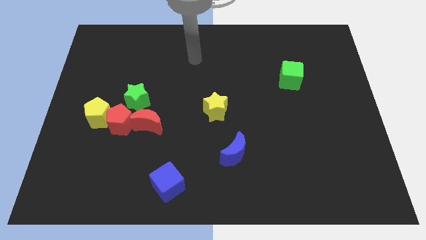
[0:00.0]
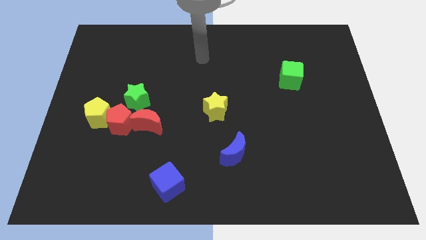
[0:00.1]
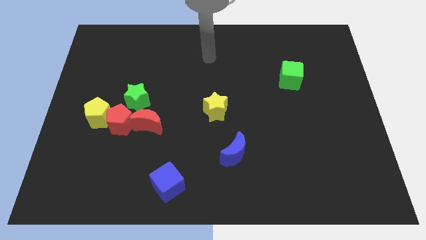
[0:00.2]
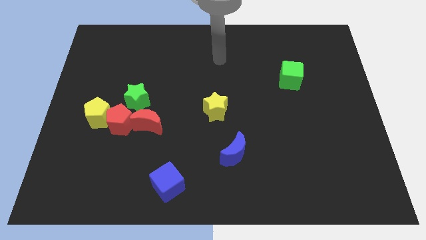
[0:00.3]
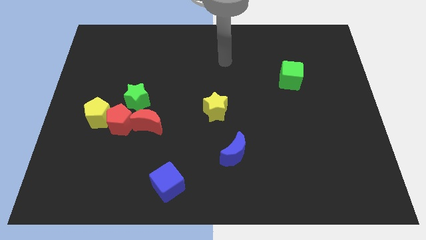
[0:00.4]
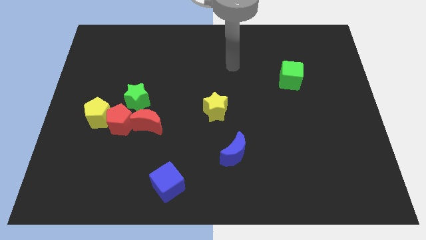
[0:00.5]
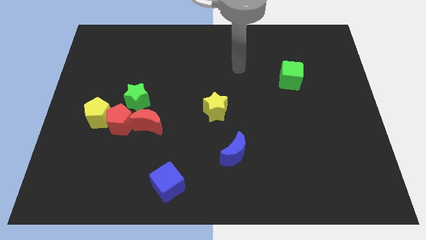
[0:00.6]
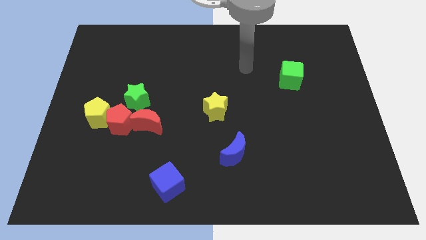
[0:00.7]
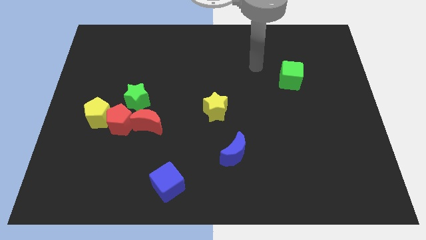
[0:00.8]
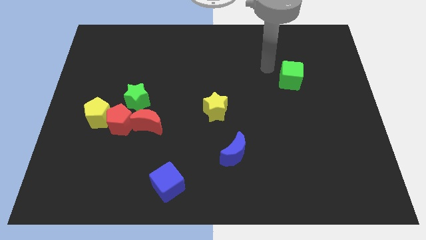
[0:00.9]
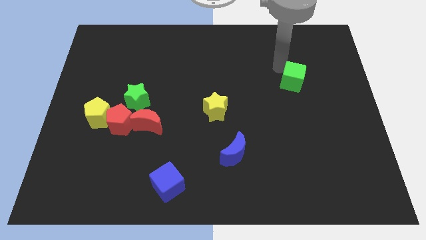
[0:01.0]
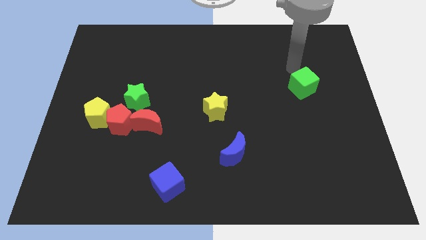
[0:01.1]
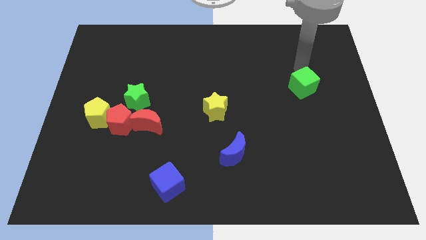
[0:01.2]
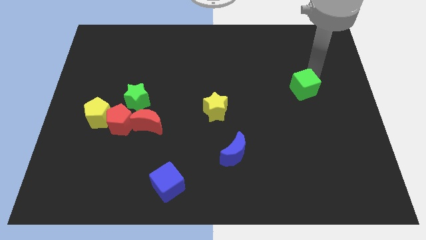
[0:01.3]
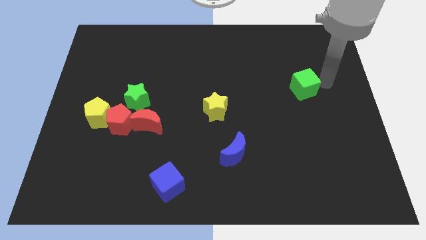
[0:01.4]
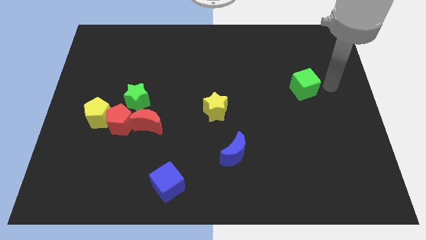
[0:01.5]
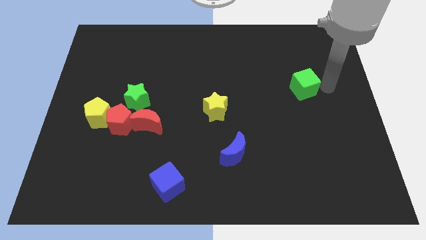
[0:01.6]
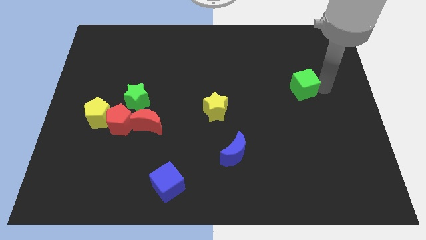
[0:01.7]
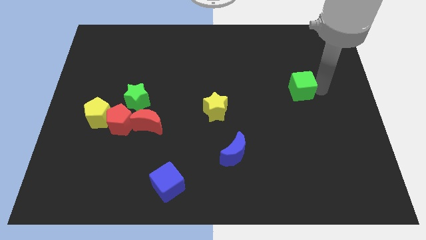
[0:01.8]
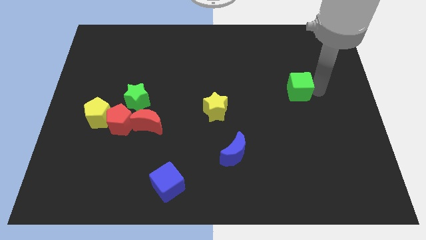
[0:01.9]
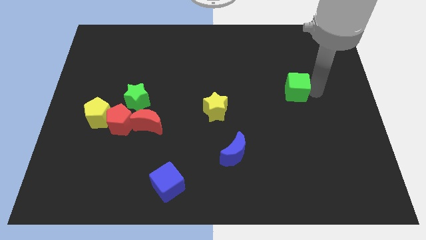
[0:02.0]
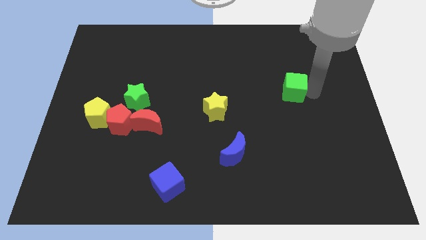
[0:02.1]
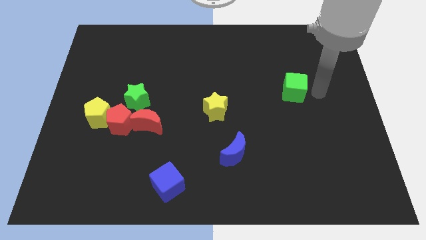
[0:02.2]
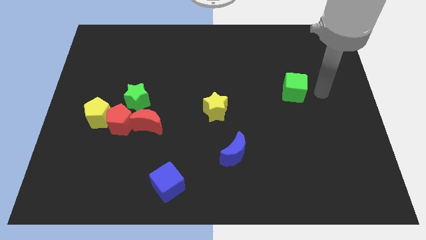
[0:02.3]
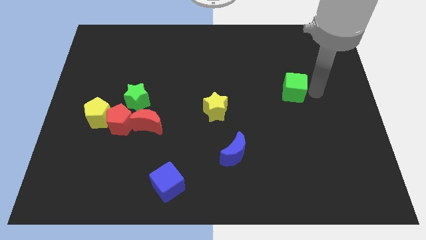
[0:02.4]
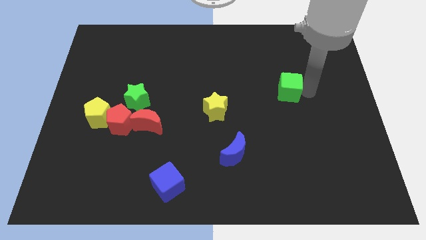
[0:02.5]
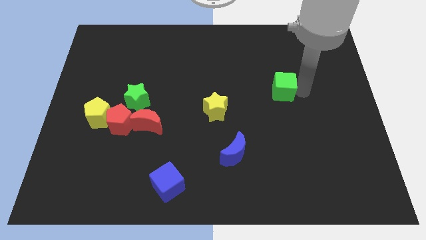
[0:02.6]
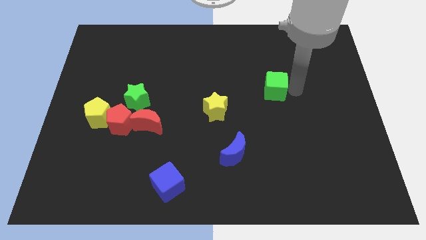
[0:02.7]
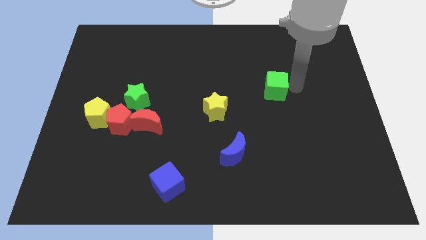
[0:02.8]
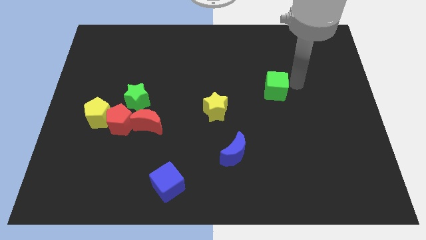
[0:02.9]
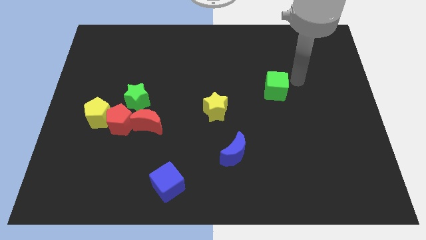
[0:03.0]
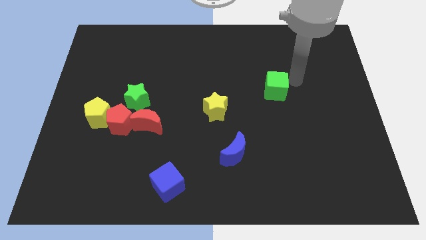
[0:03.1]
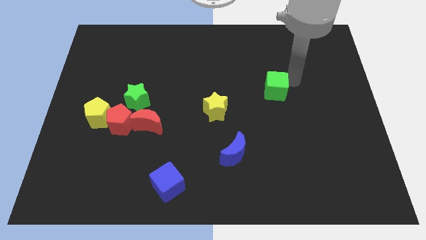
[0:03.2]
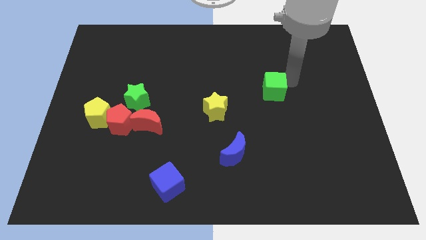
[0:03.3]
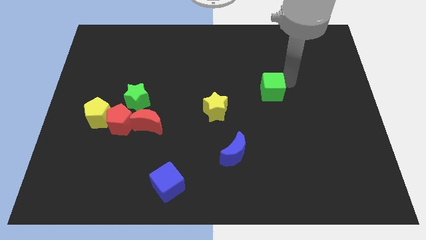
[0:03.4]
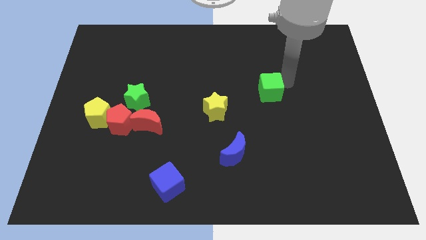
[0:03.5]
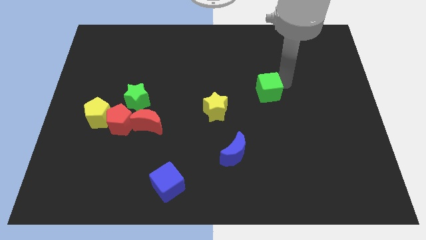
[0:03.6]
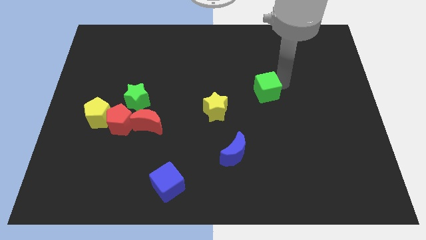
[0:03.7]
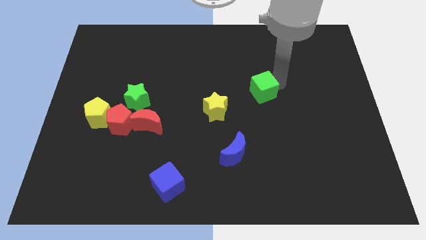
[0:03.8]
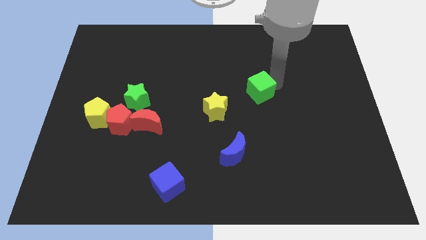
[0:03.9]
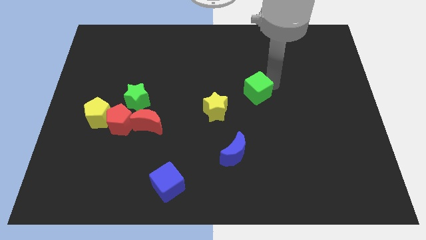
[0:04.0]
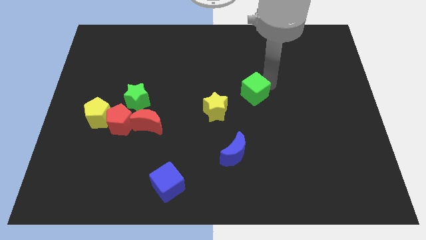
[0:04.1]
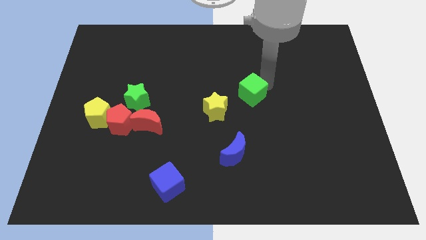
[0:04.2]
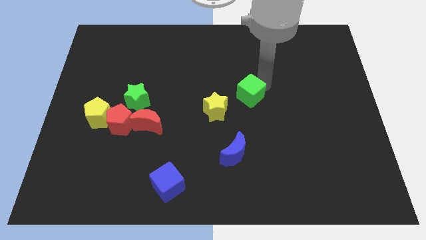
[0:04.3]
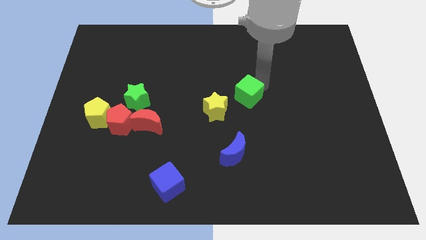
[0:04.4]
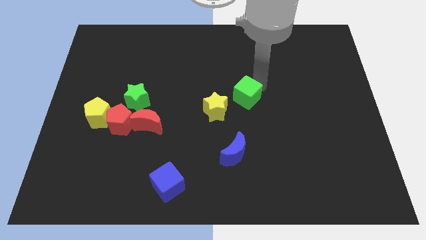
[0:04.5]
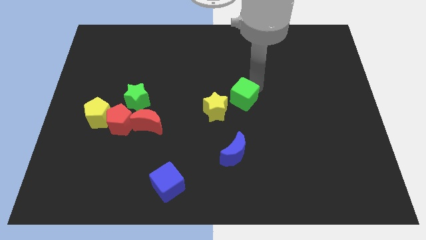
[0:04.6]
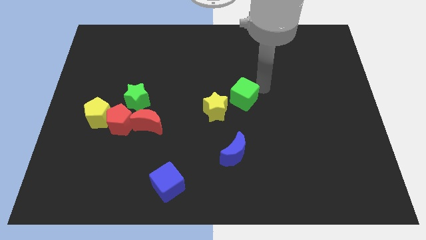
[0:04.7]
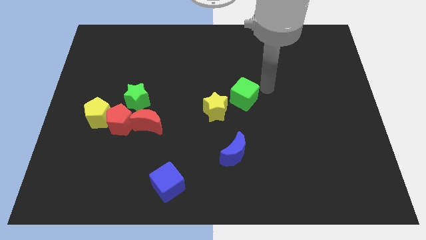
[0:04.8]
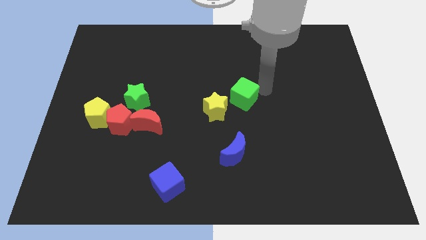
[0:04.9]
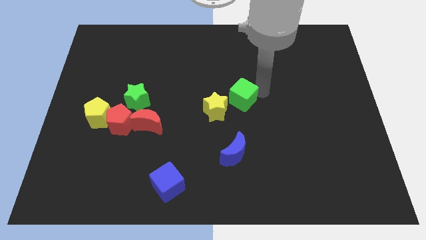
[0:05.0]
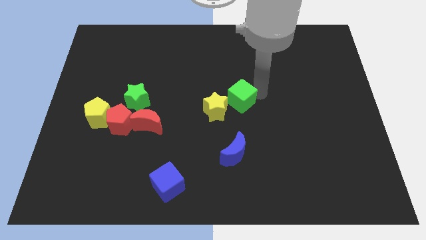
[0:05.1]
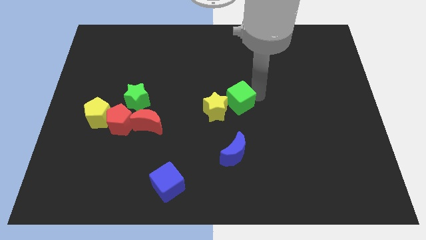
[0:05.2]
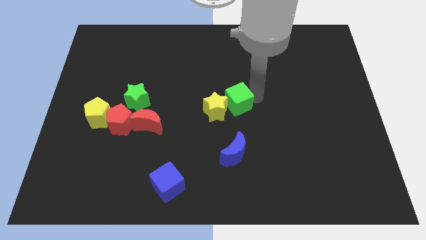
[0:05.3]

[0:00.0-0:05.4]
put the green cube next to the yellow star

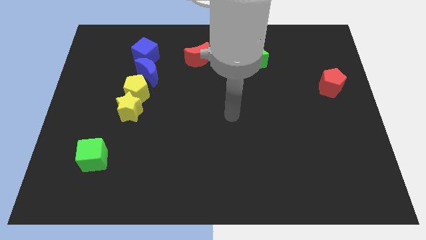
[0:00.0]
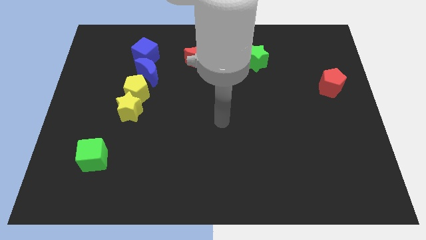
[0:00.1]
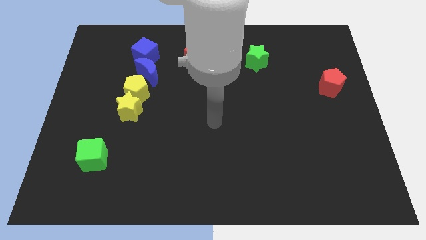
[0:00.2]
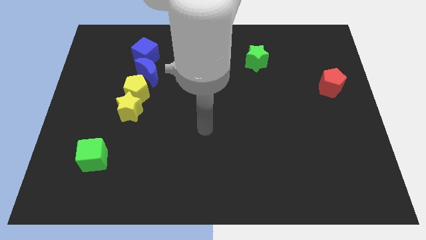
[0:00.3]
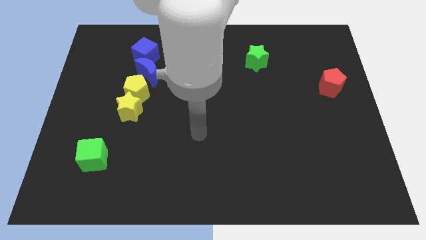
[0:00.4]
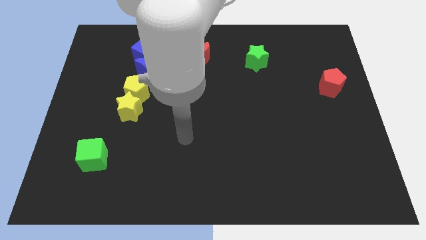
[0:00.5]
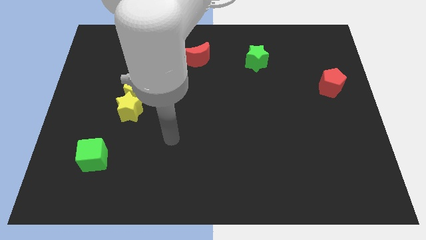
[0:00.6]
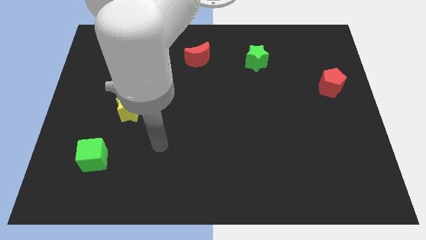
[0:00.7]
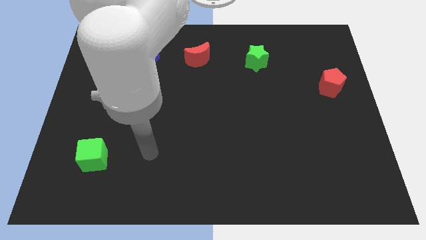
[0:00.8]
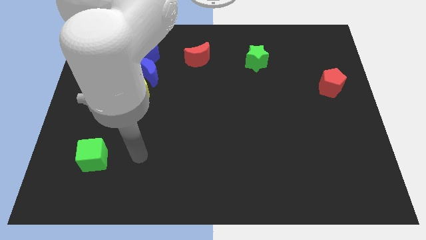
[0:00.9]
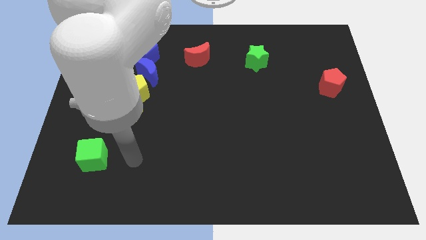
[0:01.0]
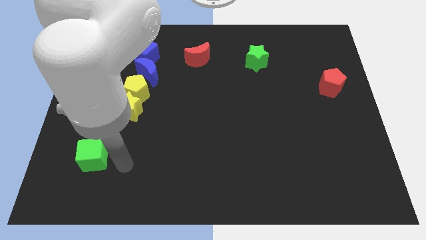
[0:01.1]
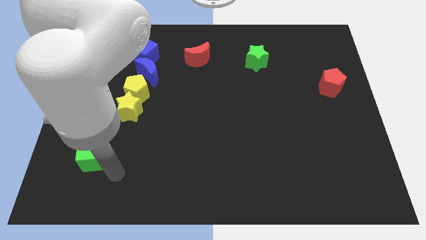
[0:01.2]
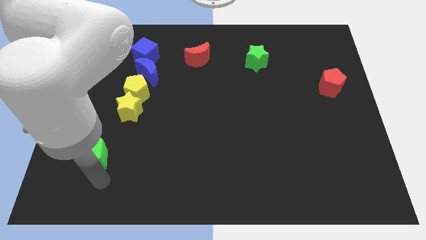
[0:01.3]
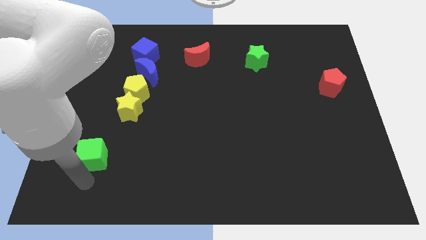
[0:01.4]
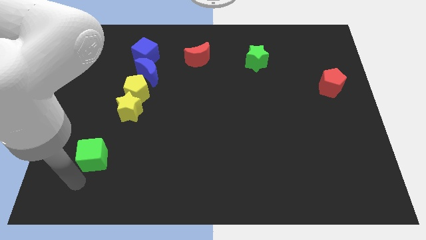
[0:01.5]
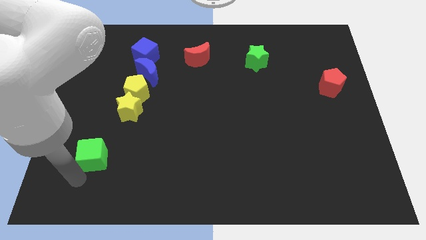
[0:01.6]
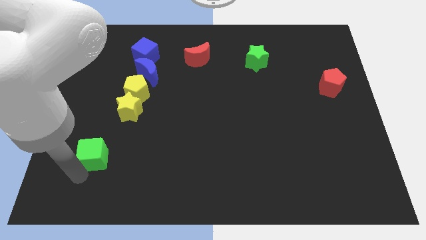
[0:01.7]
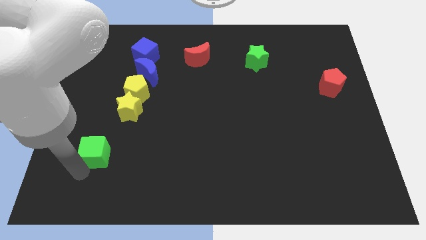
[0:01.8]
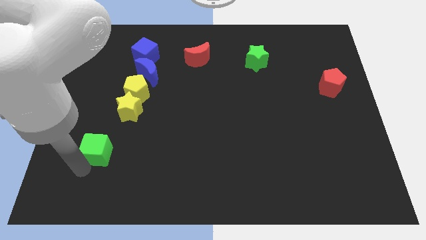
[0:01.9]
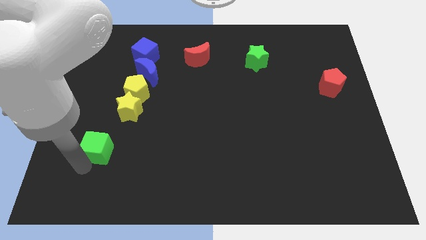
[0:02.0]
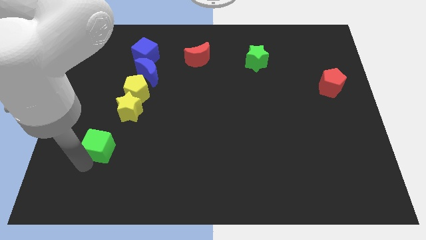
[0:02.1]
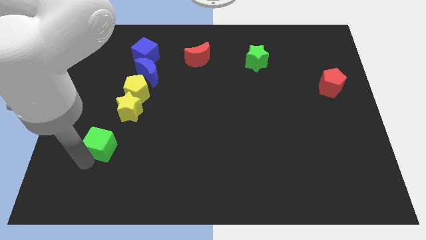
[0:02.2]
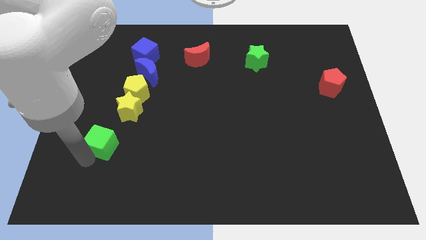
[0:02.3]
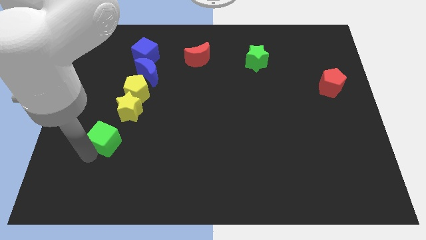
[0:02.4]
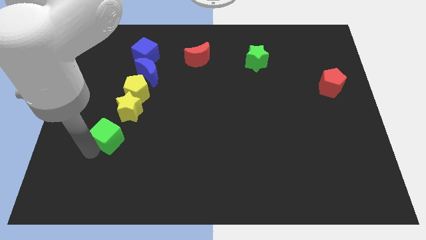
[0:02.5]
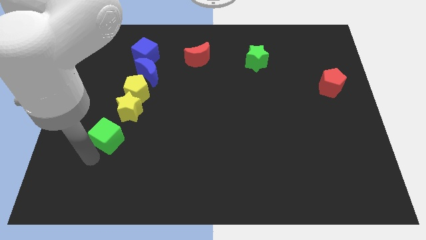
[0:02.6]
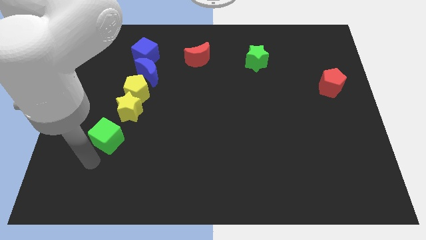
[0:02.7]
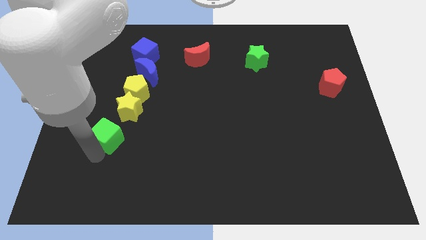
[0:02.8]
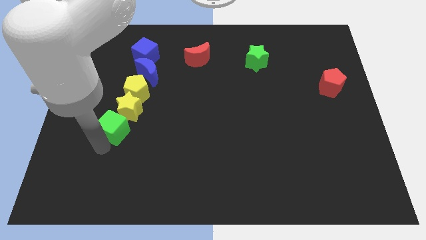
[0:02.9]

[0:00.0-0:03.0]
move the green cube towards the yellow star
